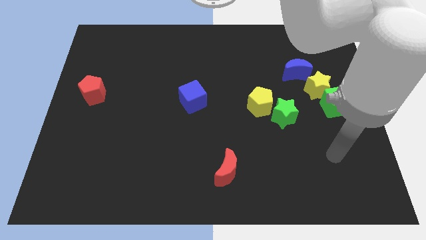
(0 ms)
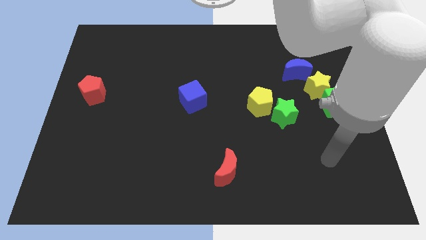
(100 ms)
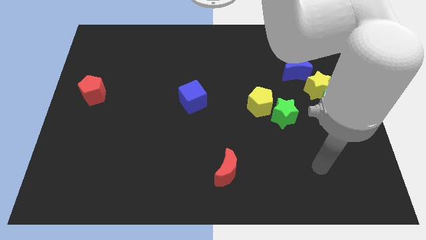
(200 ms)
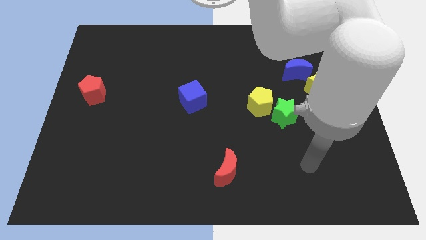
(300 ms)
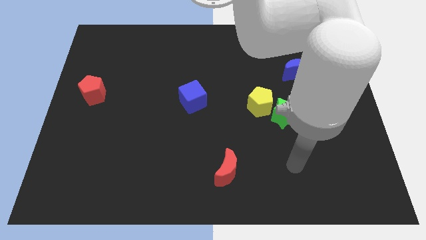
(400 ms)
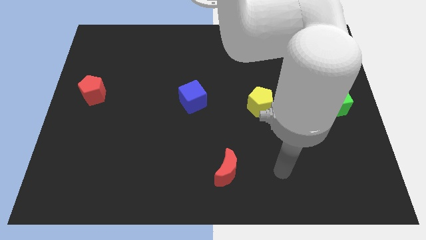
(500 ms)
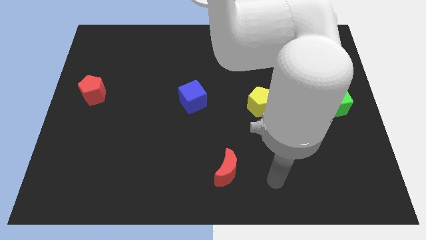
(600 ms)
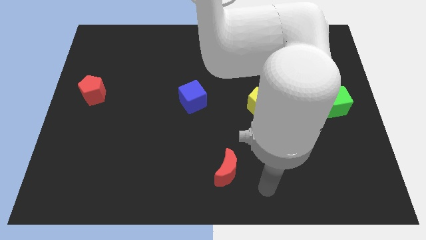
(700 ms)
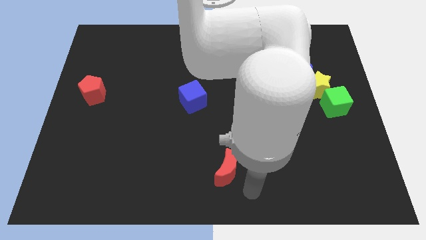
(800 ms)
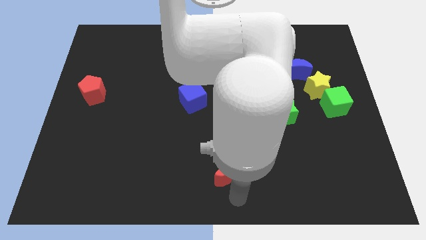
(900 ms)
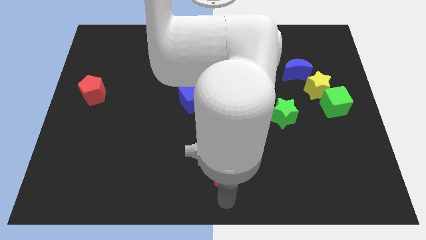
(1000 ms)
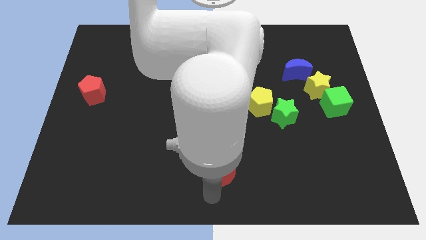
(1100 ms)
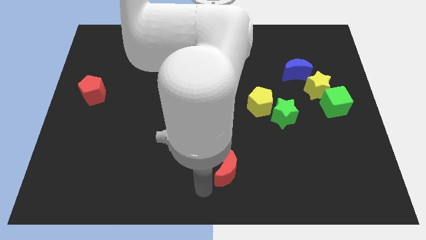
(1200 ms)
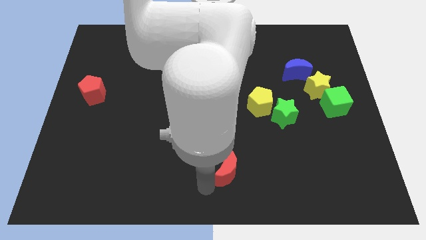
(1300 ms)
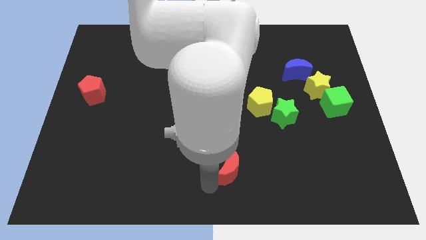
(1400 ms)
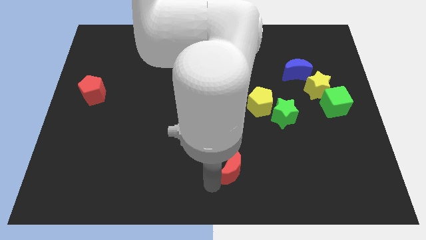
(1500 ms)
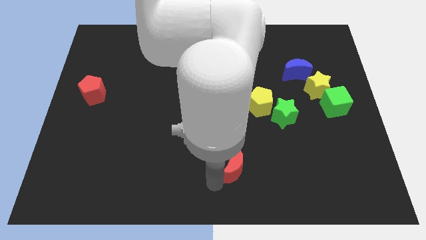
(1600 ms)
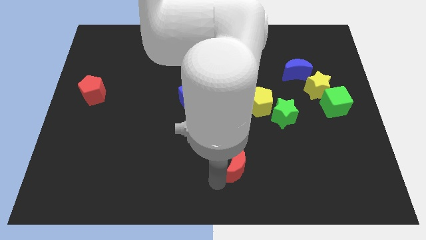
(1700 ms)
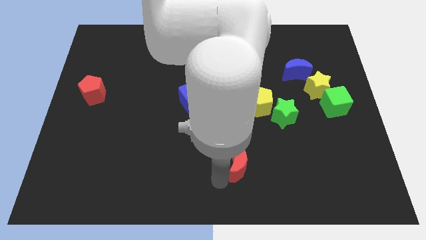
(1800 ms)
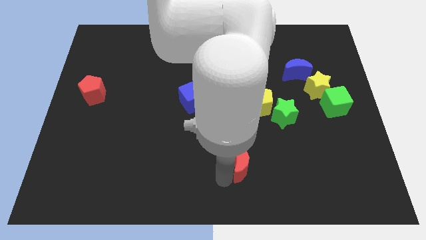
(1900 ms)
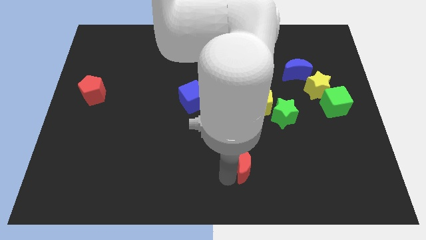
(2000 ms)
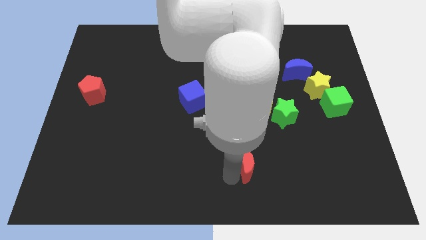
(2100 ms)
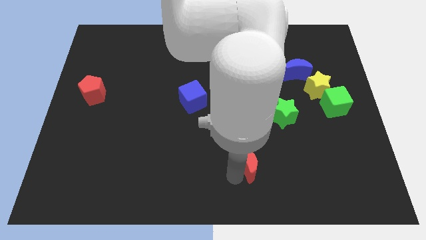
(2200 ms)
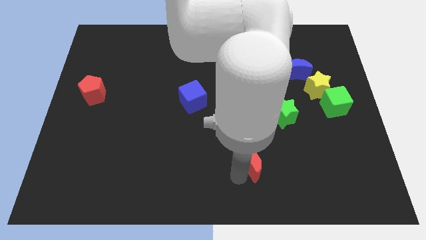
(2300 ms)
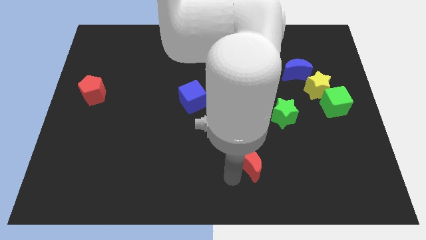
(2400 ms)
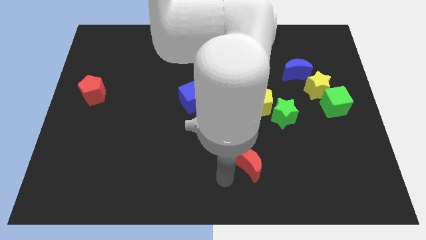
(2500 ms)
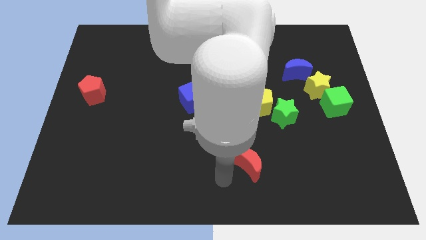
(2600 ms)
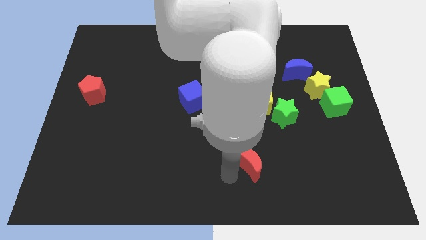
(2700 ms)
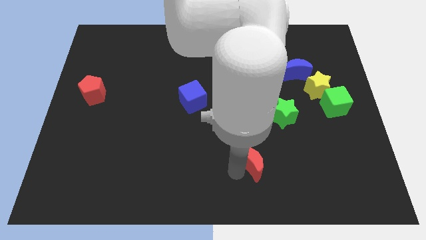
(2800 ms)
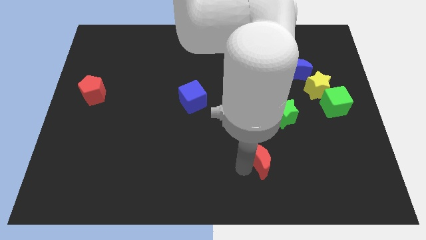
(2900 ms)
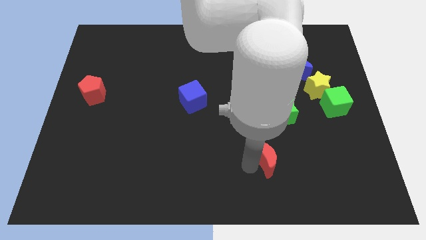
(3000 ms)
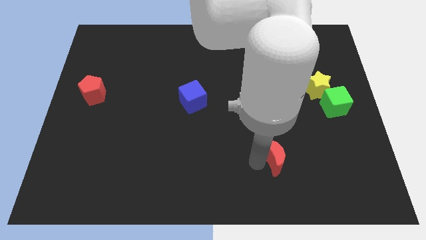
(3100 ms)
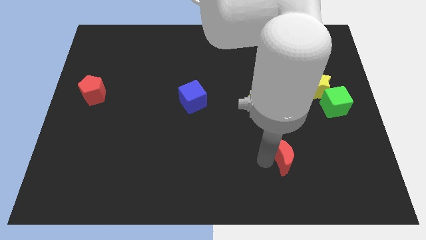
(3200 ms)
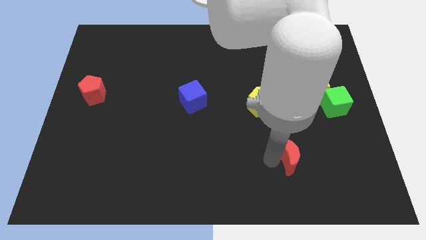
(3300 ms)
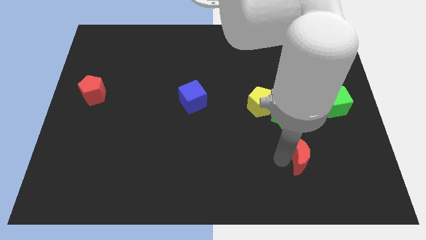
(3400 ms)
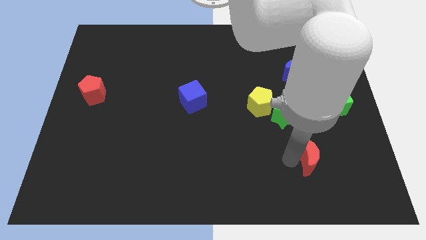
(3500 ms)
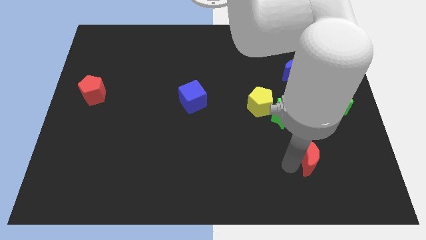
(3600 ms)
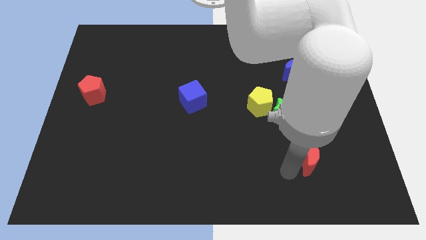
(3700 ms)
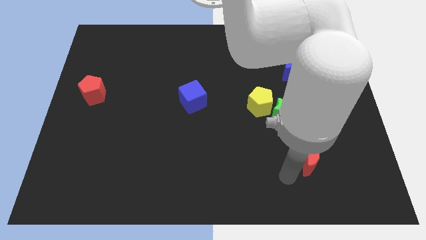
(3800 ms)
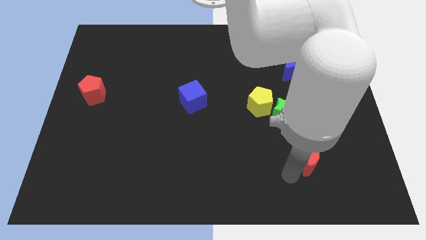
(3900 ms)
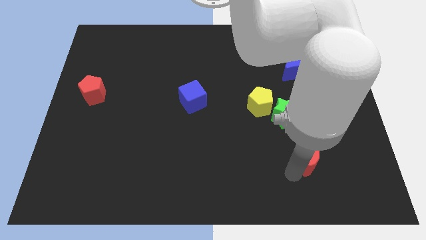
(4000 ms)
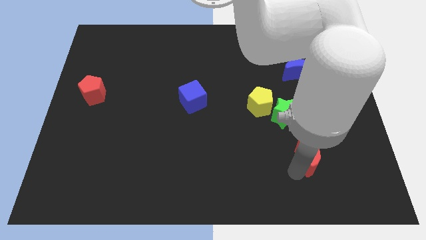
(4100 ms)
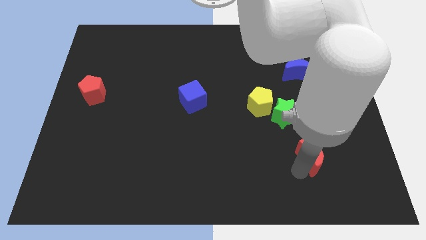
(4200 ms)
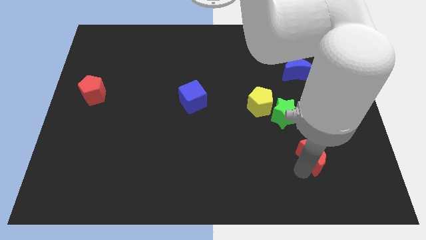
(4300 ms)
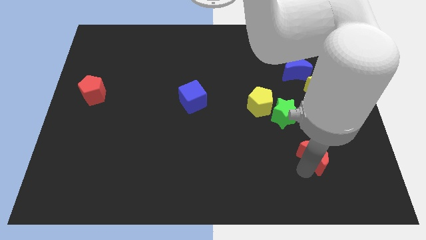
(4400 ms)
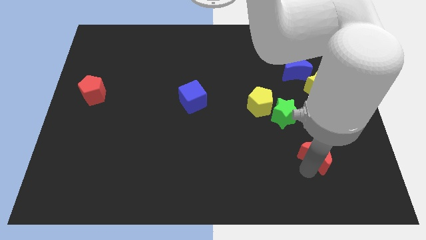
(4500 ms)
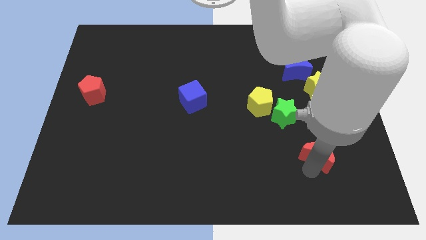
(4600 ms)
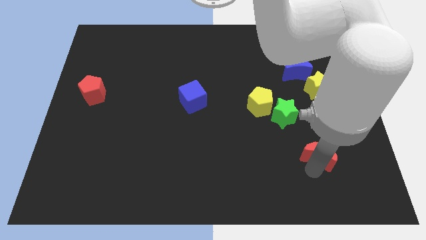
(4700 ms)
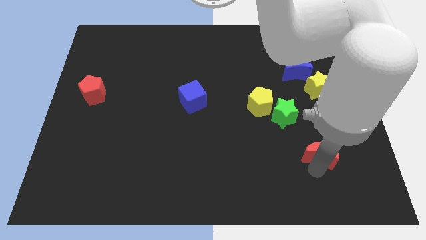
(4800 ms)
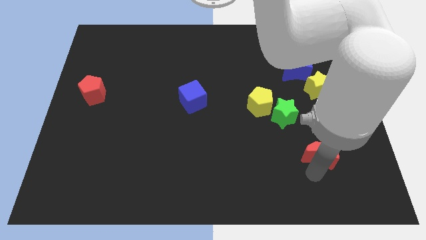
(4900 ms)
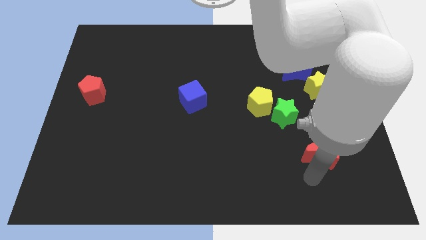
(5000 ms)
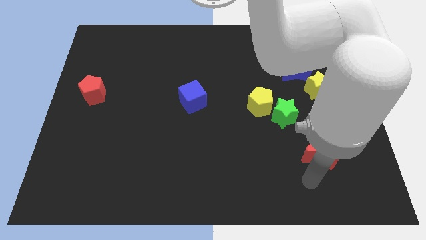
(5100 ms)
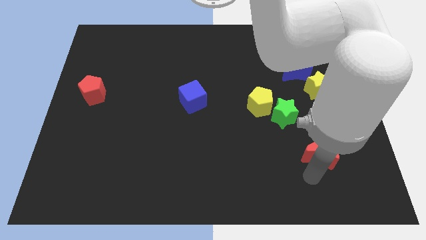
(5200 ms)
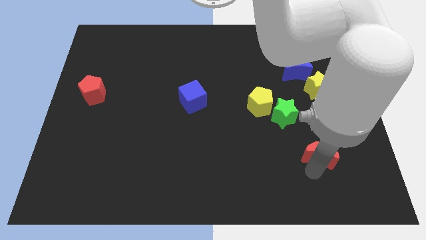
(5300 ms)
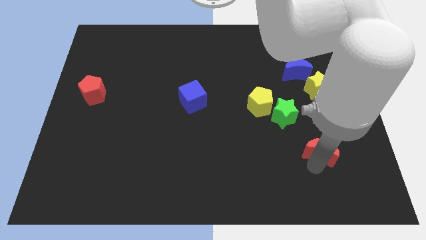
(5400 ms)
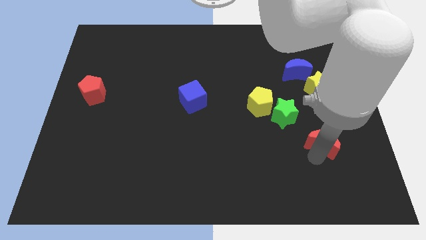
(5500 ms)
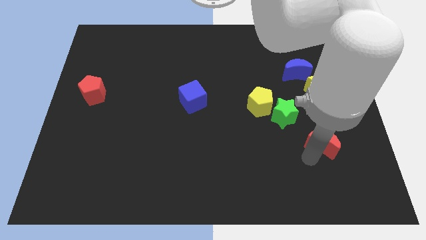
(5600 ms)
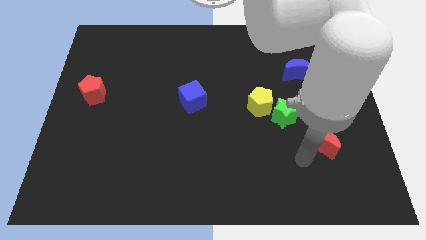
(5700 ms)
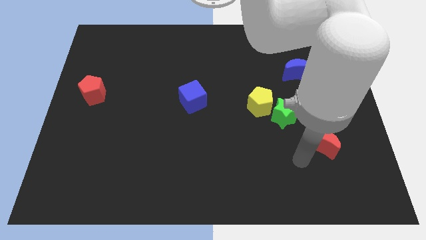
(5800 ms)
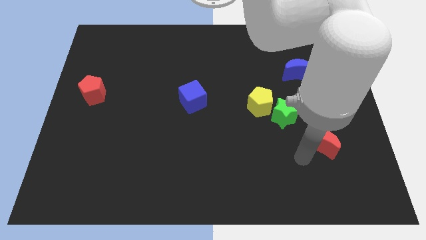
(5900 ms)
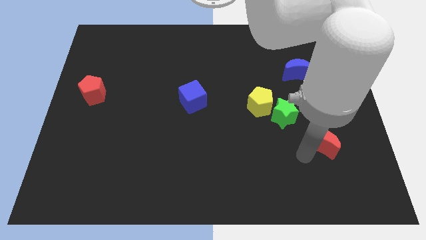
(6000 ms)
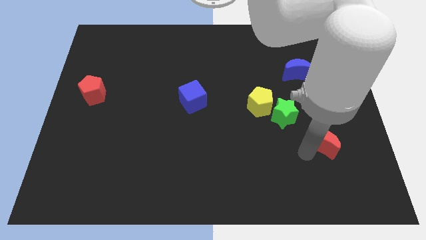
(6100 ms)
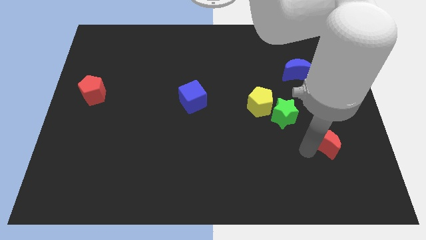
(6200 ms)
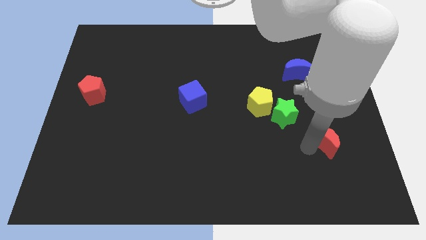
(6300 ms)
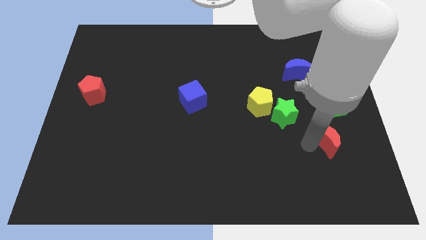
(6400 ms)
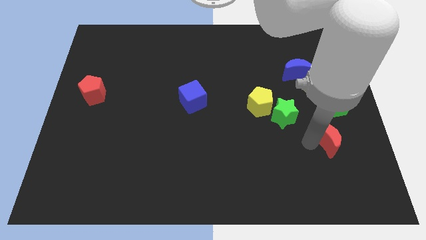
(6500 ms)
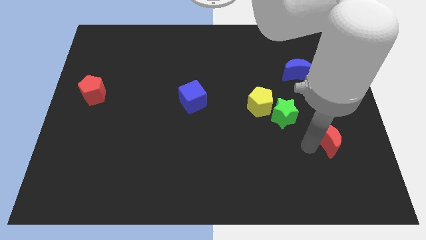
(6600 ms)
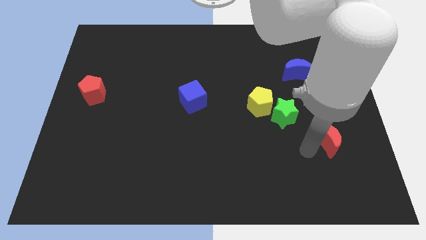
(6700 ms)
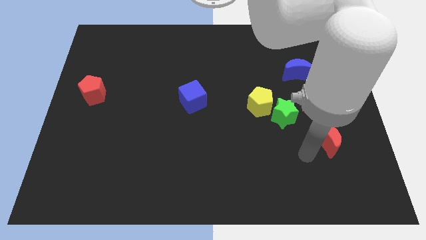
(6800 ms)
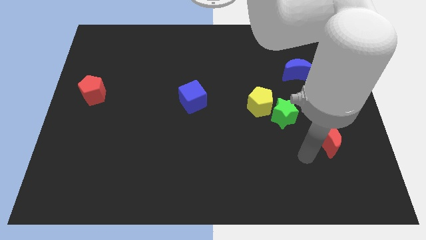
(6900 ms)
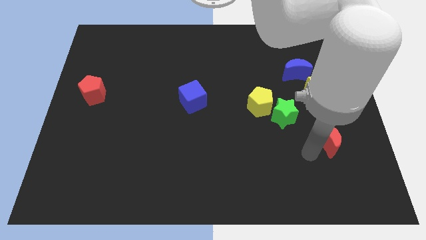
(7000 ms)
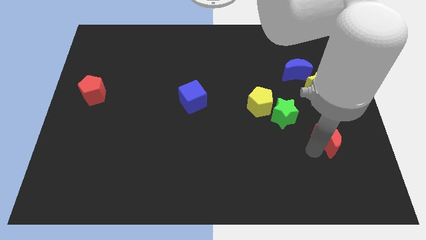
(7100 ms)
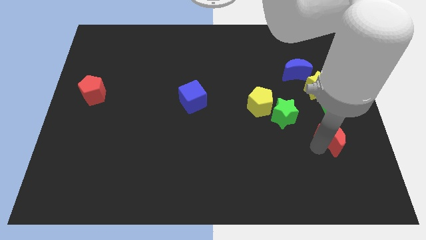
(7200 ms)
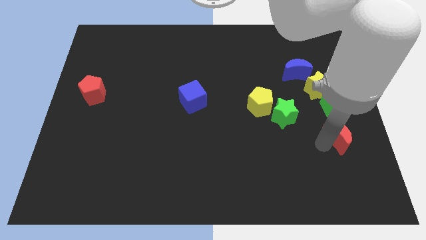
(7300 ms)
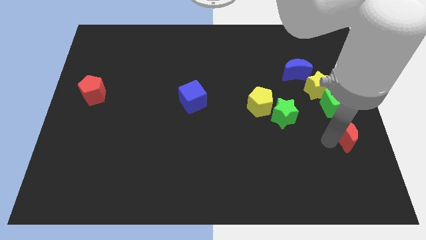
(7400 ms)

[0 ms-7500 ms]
slide the red moon to the right side of the board
